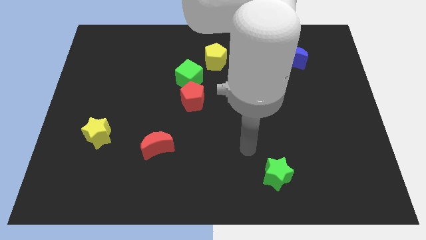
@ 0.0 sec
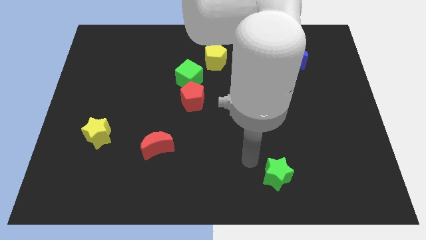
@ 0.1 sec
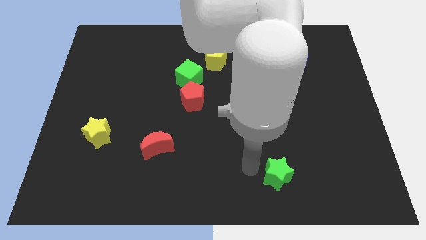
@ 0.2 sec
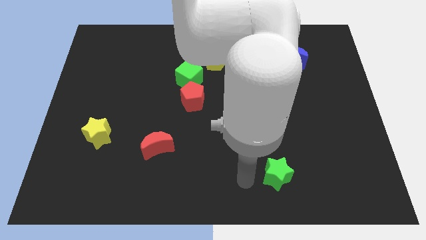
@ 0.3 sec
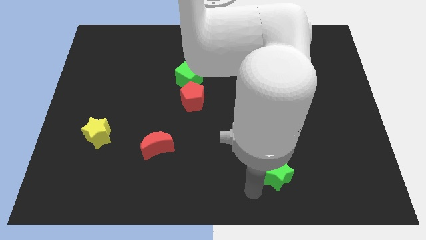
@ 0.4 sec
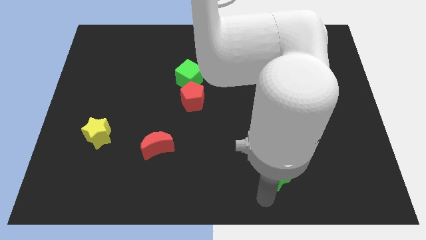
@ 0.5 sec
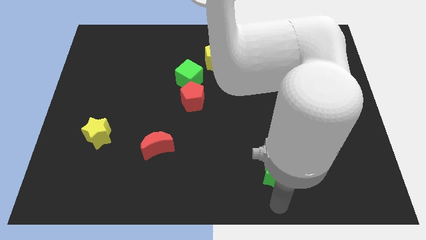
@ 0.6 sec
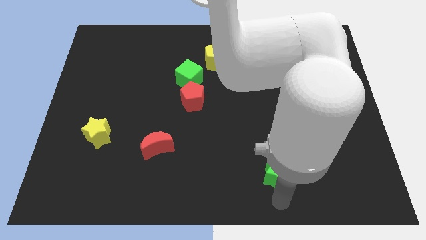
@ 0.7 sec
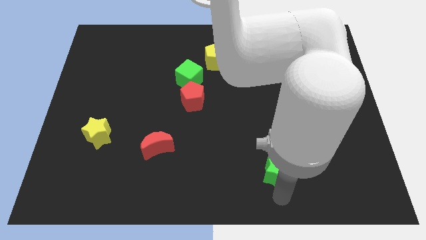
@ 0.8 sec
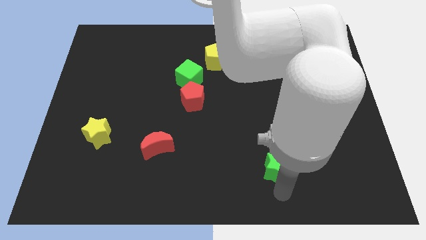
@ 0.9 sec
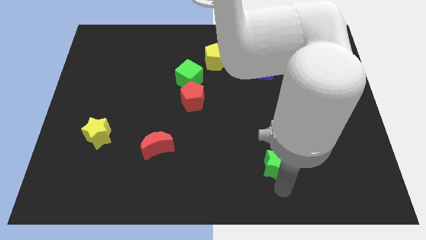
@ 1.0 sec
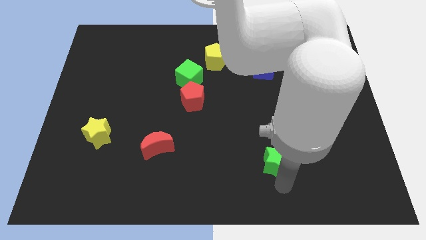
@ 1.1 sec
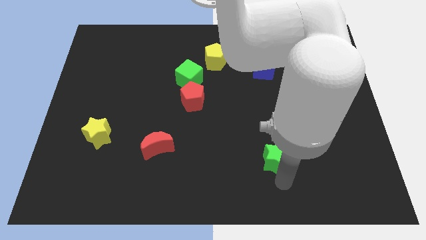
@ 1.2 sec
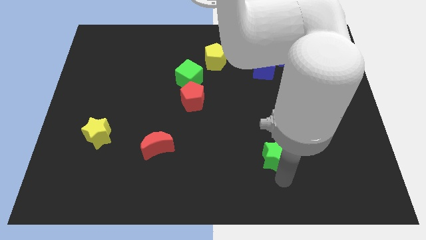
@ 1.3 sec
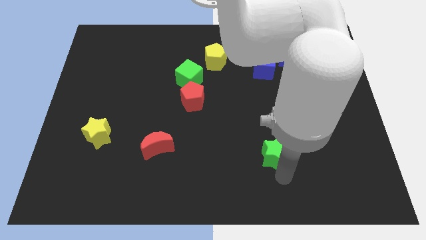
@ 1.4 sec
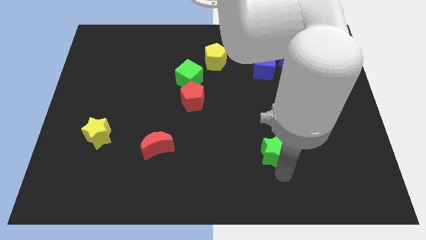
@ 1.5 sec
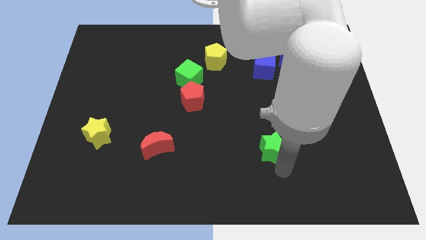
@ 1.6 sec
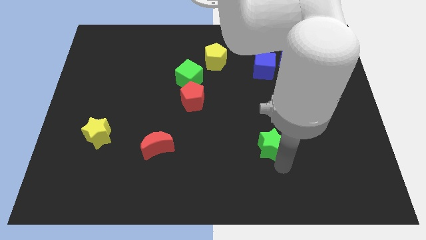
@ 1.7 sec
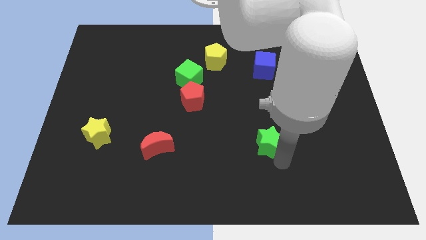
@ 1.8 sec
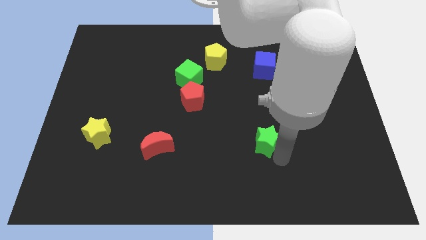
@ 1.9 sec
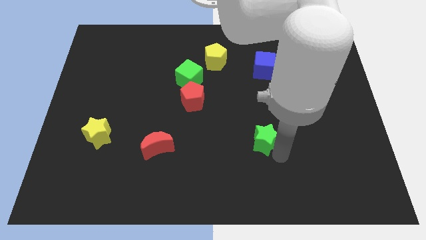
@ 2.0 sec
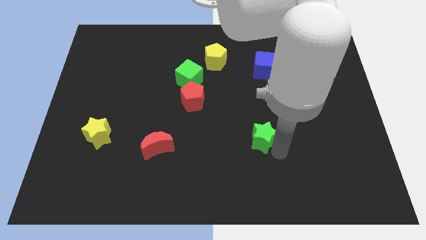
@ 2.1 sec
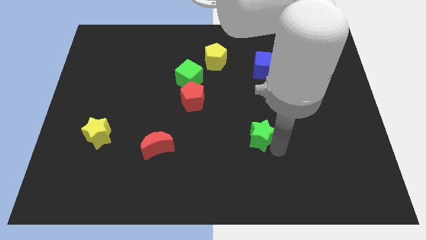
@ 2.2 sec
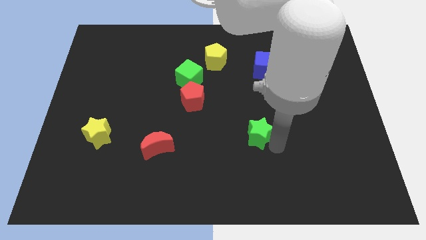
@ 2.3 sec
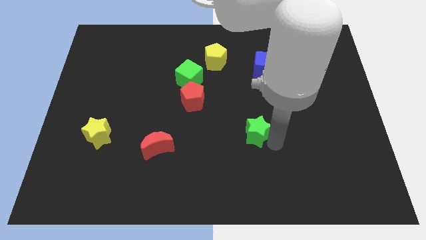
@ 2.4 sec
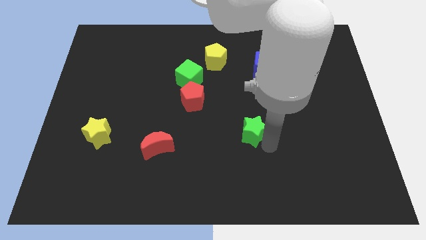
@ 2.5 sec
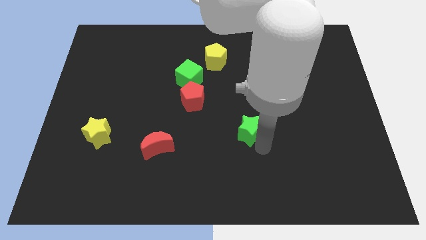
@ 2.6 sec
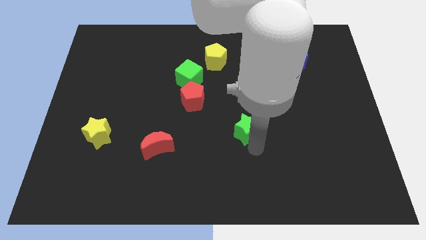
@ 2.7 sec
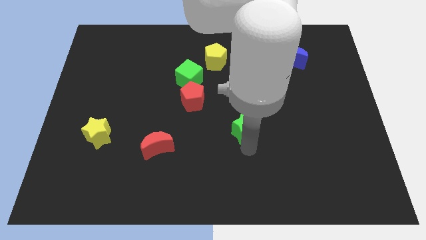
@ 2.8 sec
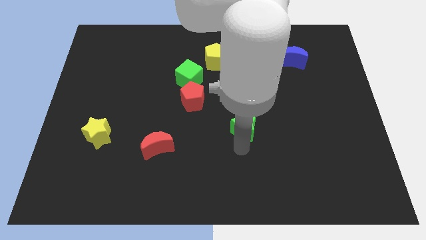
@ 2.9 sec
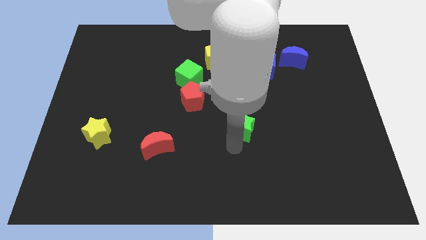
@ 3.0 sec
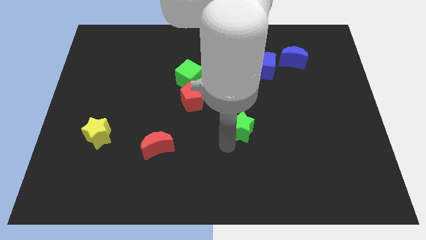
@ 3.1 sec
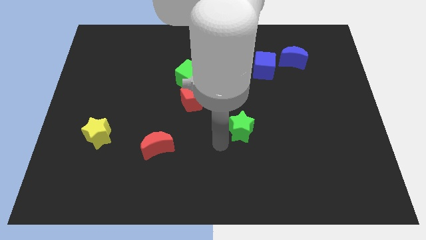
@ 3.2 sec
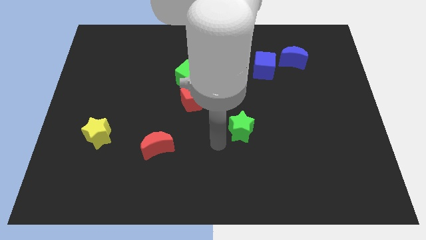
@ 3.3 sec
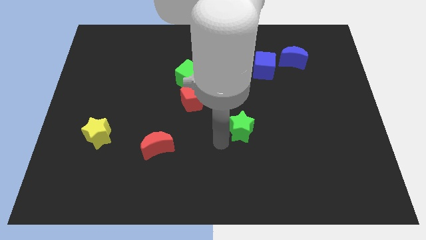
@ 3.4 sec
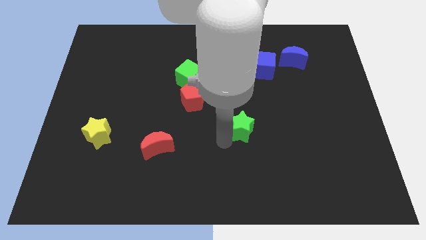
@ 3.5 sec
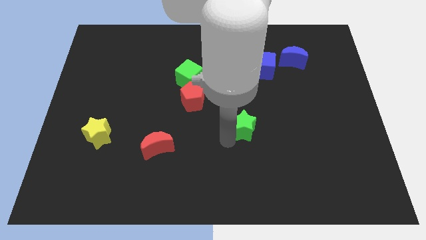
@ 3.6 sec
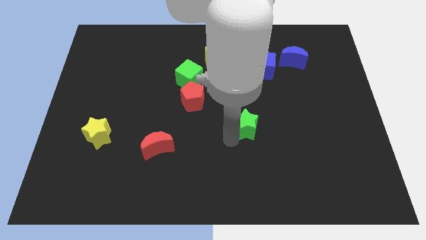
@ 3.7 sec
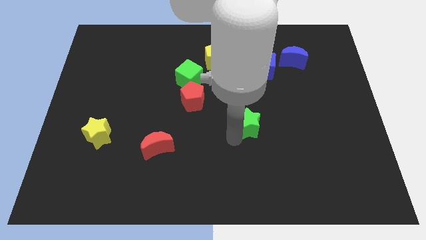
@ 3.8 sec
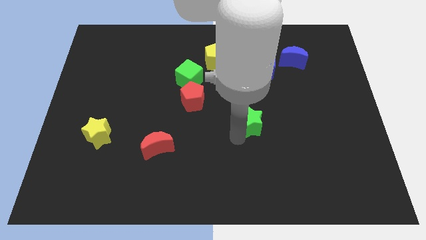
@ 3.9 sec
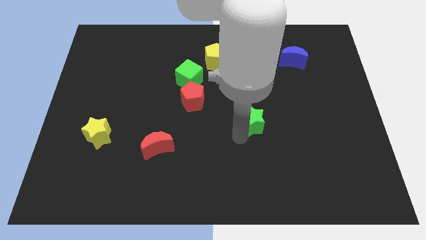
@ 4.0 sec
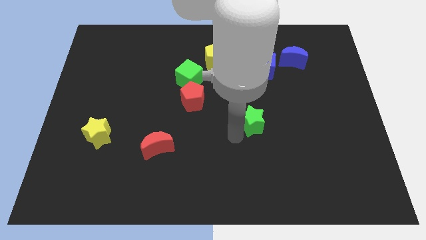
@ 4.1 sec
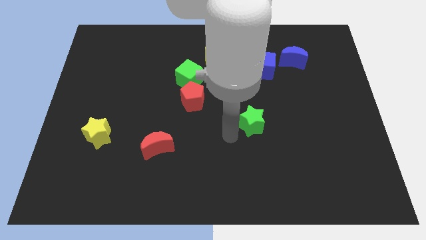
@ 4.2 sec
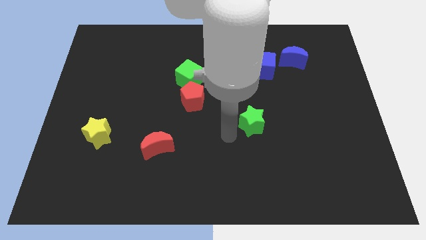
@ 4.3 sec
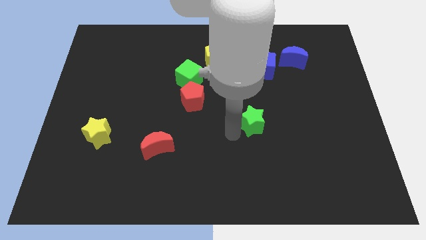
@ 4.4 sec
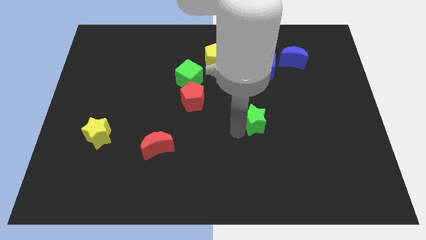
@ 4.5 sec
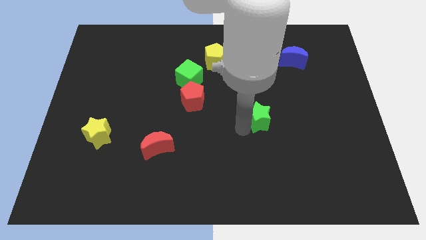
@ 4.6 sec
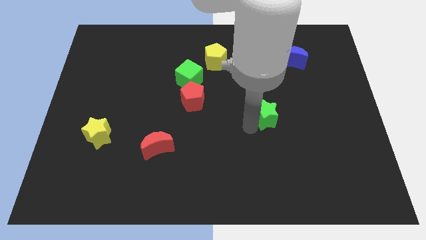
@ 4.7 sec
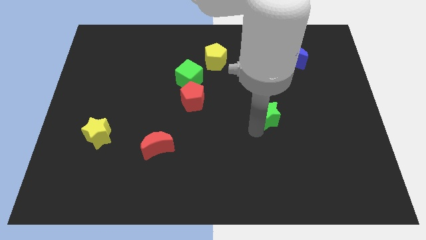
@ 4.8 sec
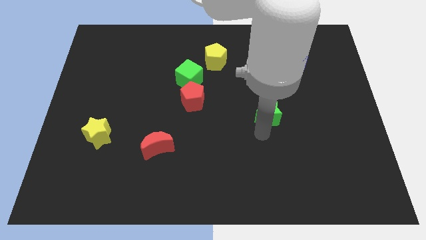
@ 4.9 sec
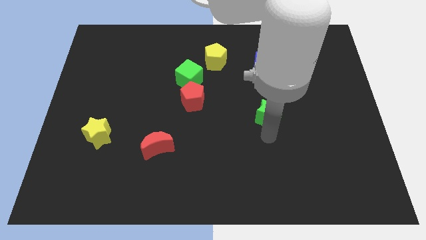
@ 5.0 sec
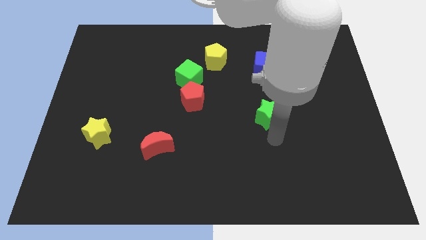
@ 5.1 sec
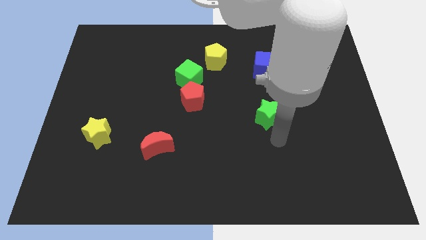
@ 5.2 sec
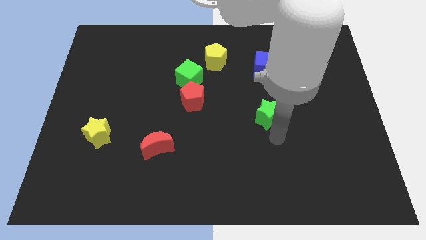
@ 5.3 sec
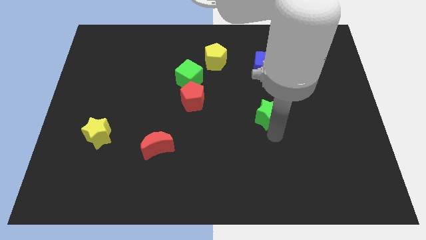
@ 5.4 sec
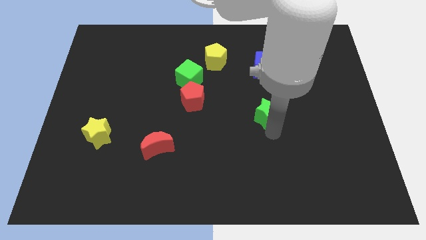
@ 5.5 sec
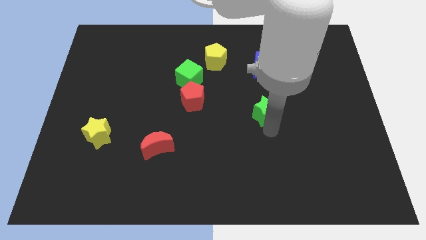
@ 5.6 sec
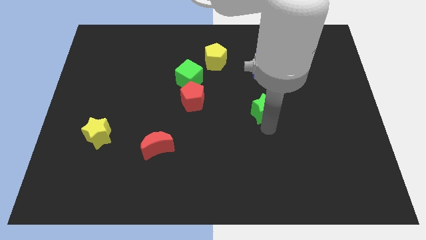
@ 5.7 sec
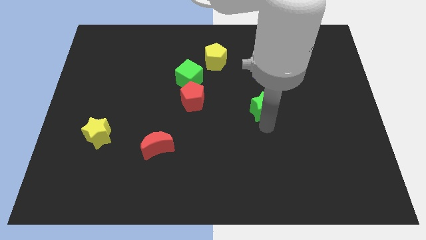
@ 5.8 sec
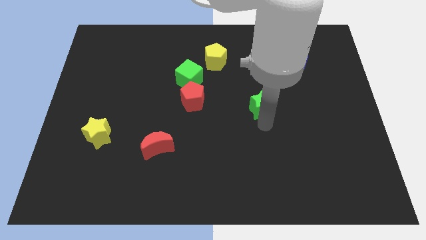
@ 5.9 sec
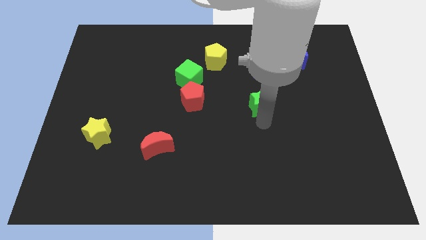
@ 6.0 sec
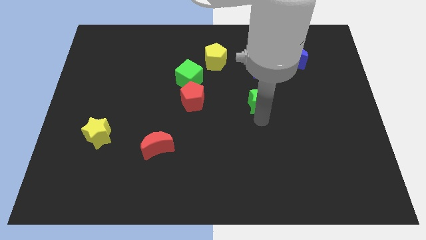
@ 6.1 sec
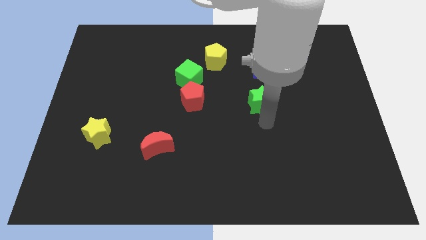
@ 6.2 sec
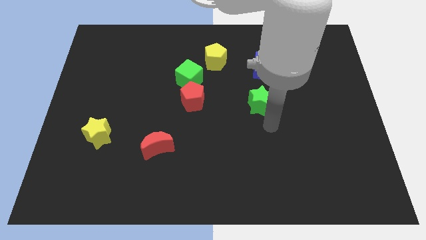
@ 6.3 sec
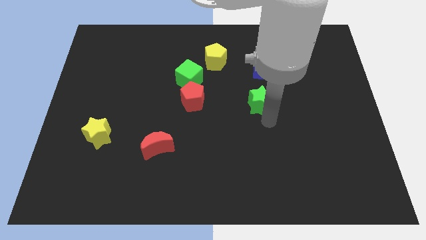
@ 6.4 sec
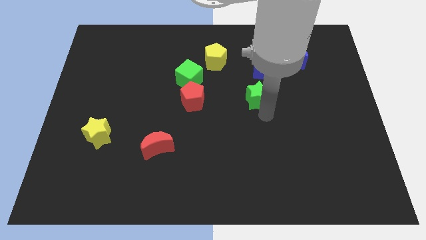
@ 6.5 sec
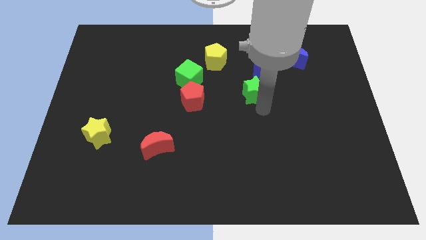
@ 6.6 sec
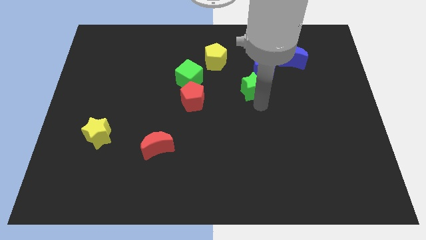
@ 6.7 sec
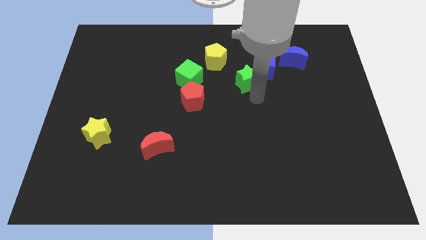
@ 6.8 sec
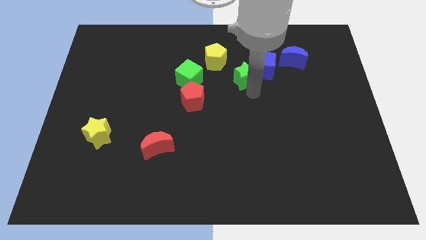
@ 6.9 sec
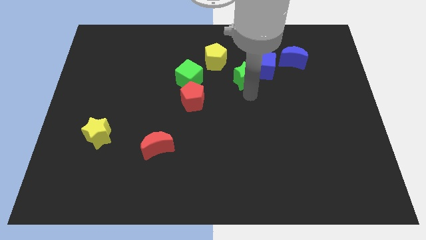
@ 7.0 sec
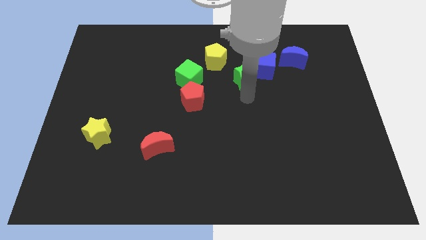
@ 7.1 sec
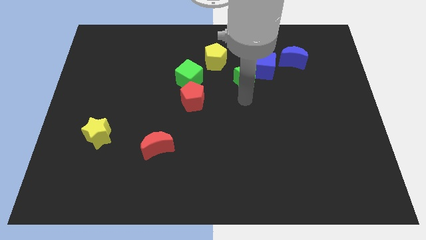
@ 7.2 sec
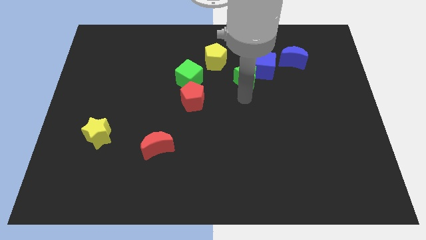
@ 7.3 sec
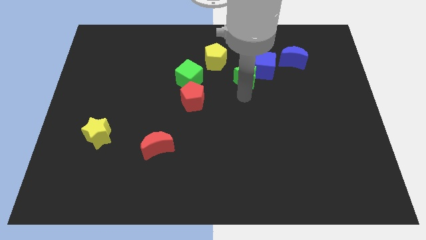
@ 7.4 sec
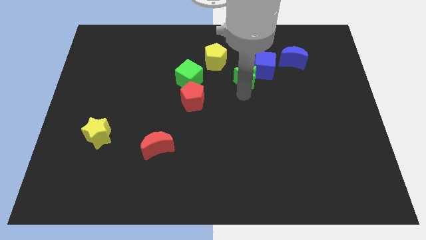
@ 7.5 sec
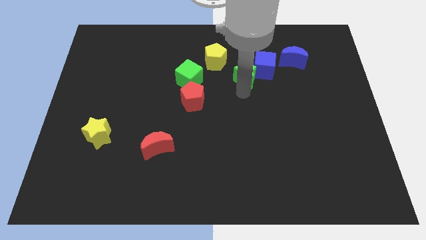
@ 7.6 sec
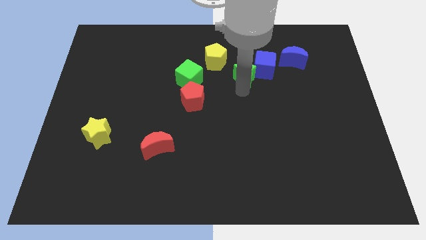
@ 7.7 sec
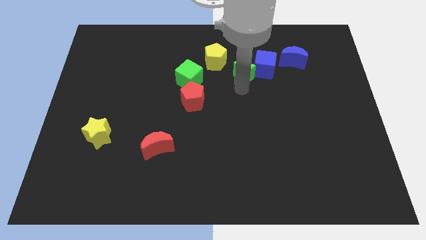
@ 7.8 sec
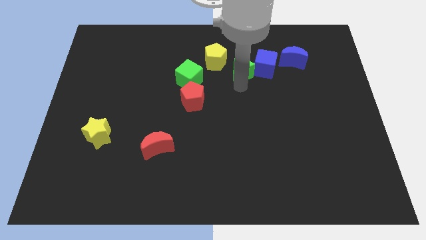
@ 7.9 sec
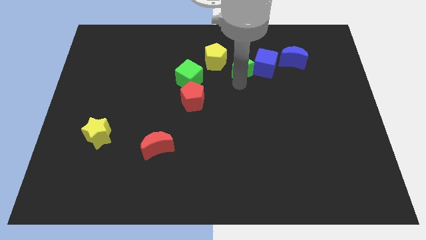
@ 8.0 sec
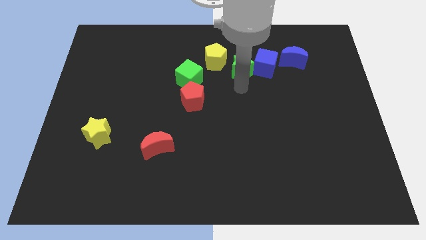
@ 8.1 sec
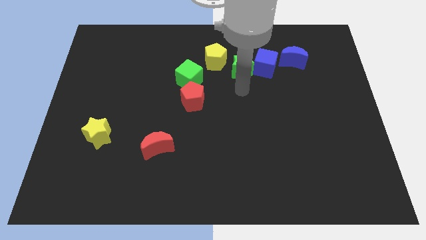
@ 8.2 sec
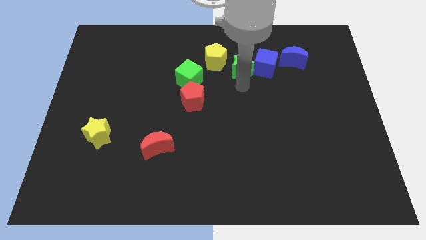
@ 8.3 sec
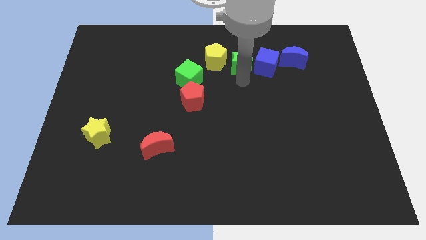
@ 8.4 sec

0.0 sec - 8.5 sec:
put the green star diagonally up and to the left of the blue cube
